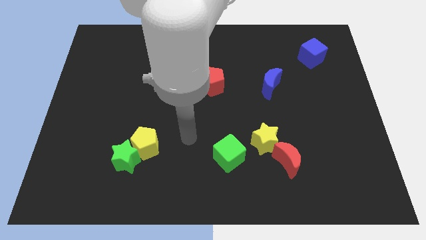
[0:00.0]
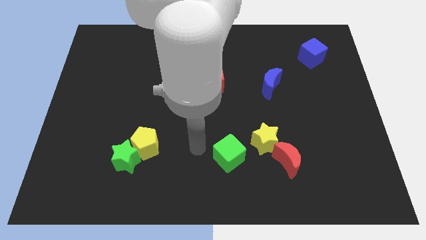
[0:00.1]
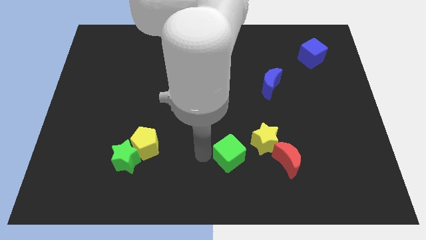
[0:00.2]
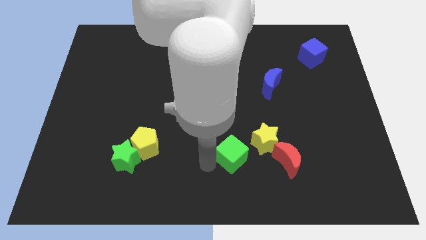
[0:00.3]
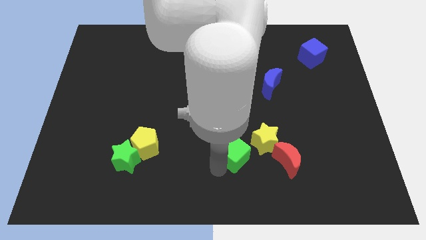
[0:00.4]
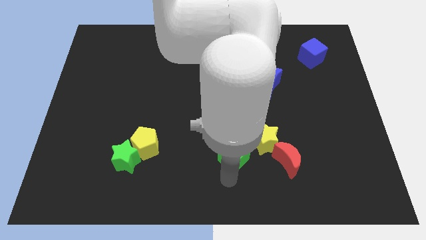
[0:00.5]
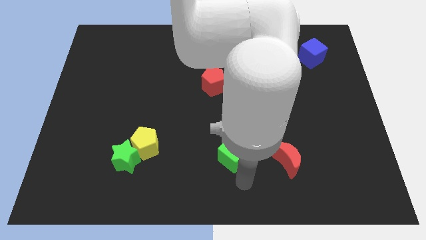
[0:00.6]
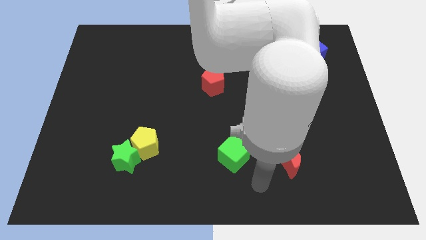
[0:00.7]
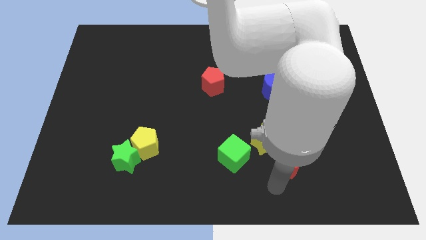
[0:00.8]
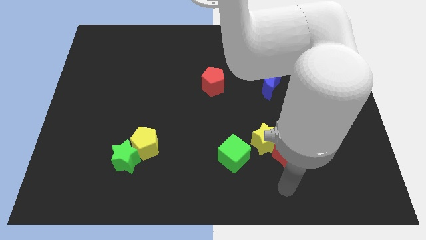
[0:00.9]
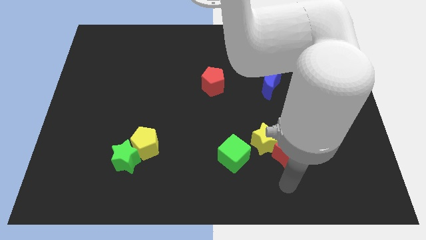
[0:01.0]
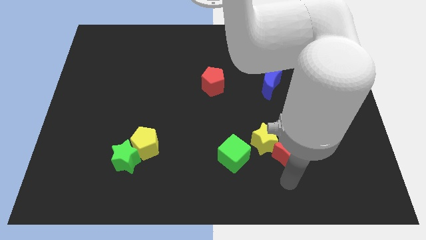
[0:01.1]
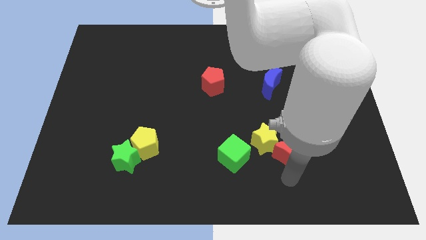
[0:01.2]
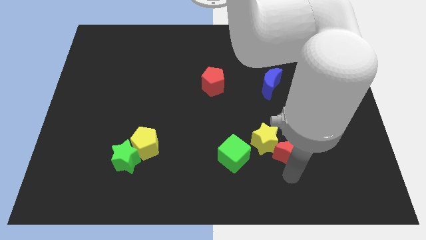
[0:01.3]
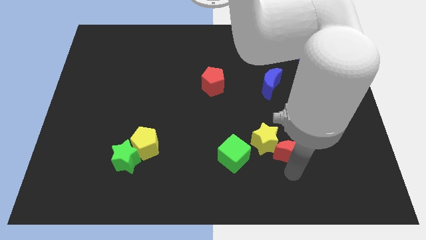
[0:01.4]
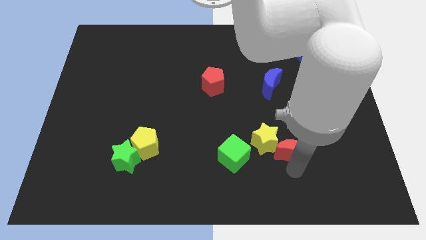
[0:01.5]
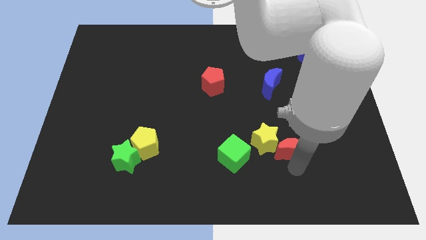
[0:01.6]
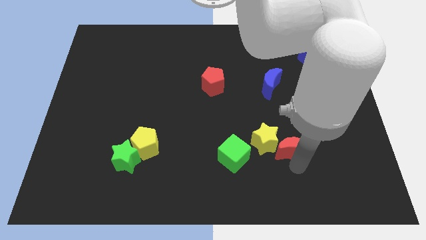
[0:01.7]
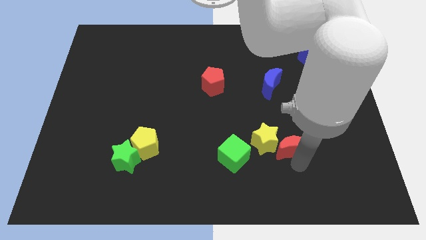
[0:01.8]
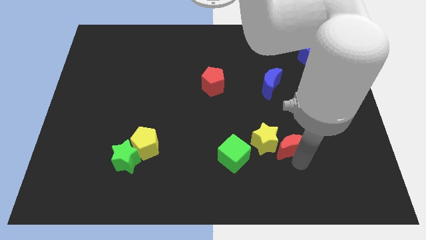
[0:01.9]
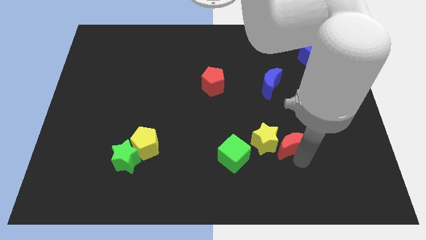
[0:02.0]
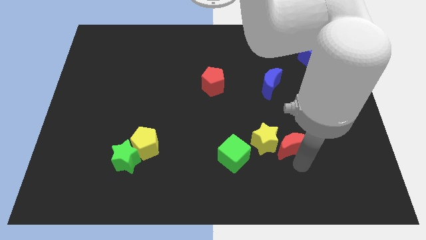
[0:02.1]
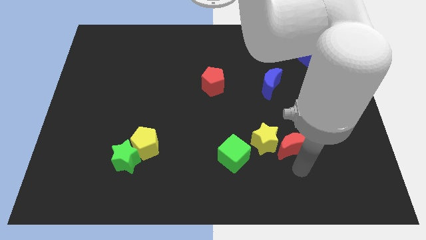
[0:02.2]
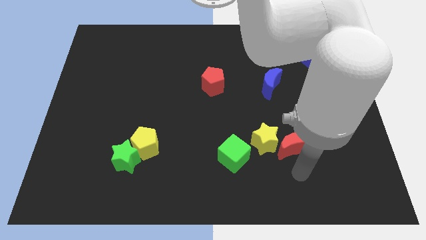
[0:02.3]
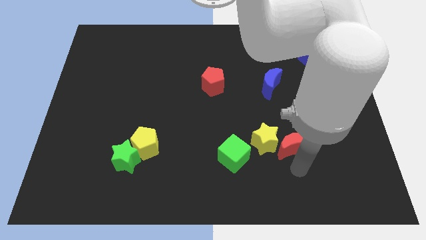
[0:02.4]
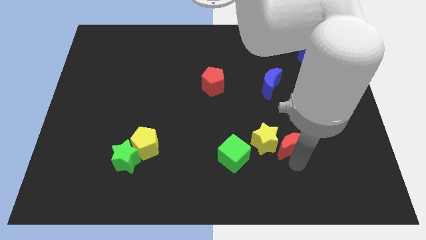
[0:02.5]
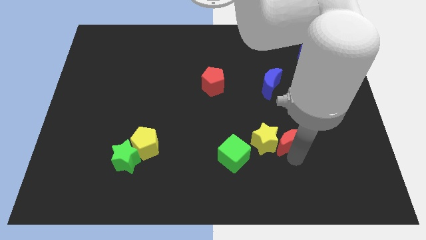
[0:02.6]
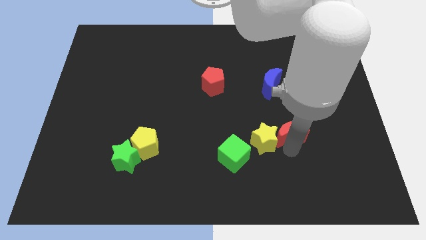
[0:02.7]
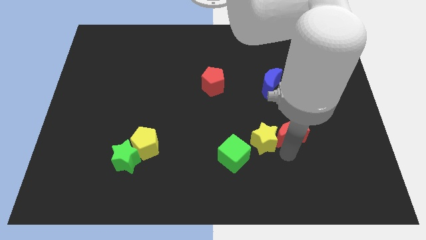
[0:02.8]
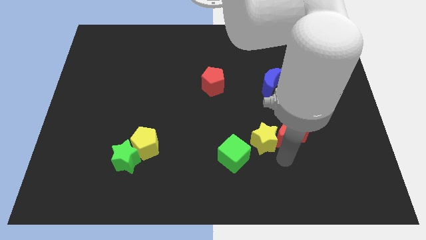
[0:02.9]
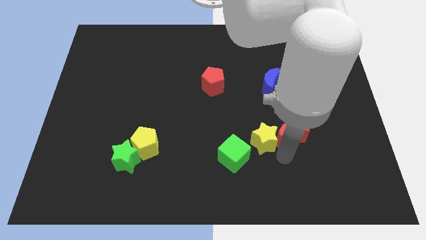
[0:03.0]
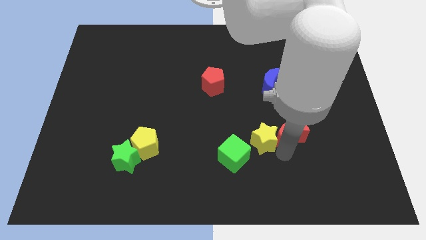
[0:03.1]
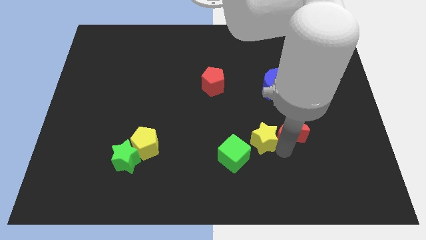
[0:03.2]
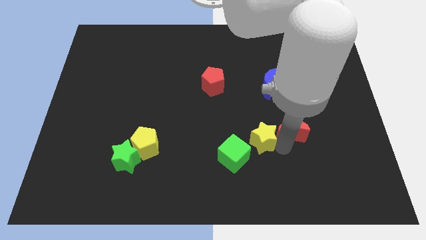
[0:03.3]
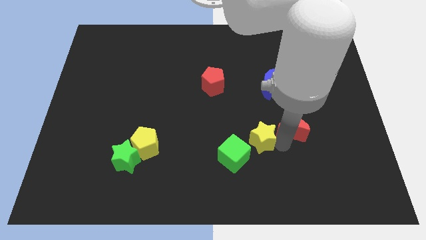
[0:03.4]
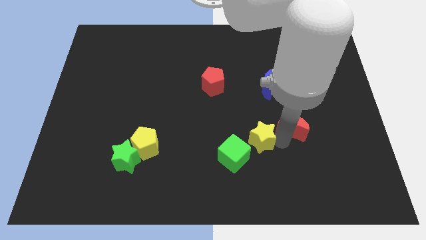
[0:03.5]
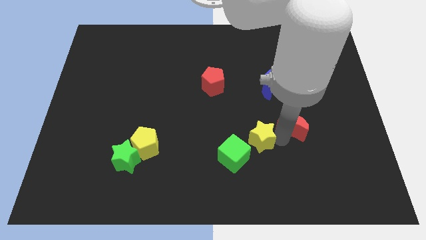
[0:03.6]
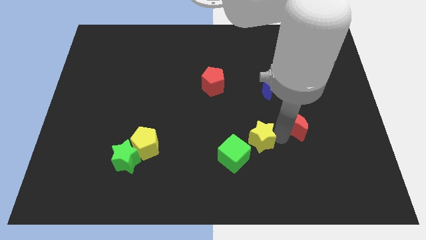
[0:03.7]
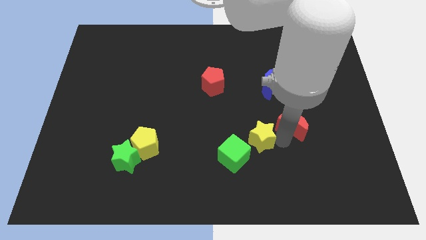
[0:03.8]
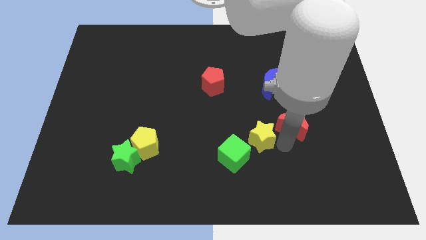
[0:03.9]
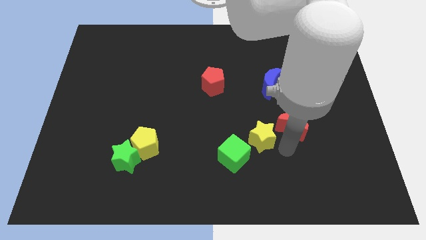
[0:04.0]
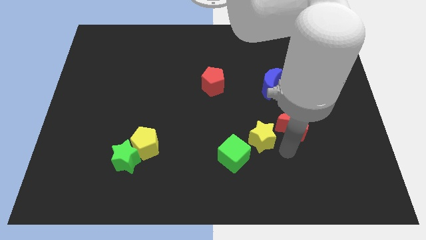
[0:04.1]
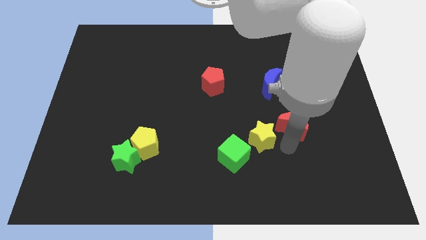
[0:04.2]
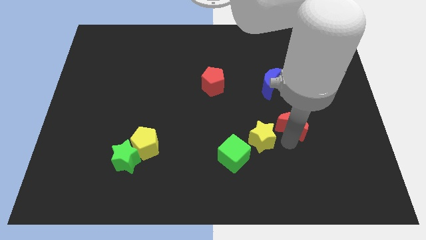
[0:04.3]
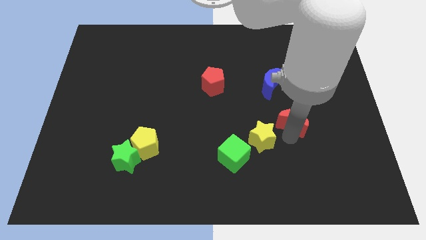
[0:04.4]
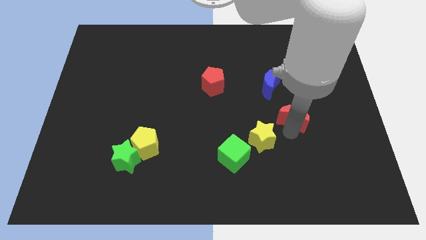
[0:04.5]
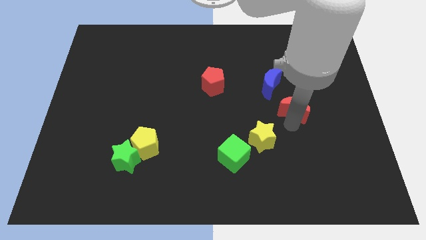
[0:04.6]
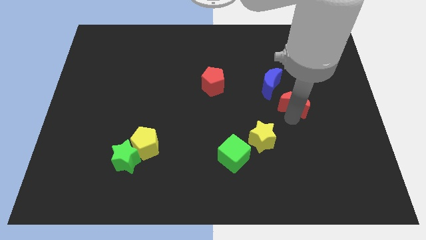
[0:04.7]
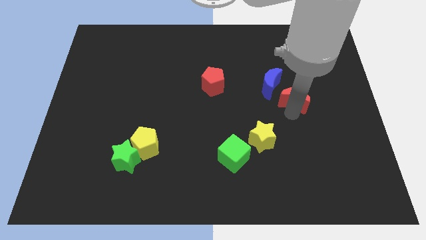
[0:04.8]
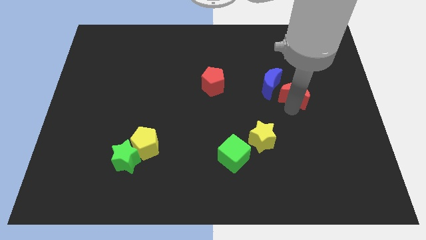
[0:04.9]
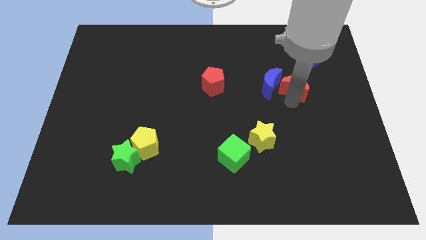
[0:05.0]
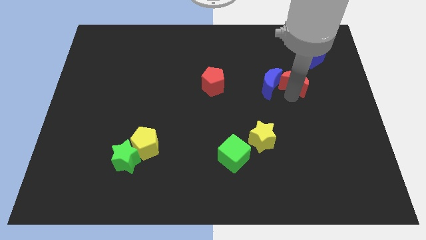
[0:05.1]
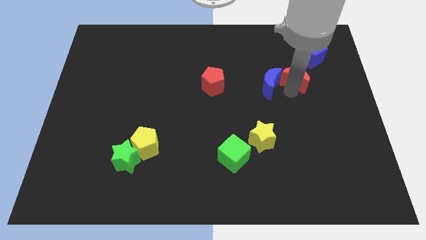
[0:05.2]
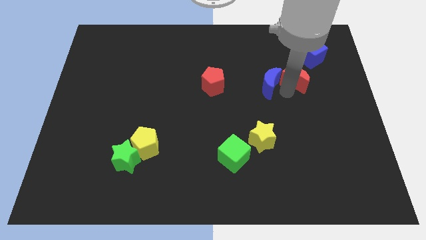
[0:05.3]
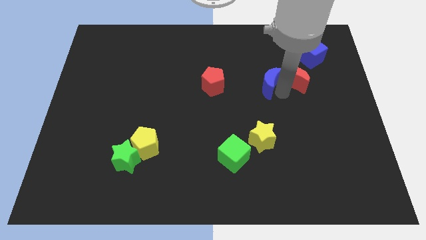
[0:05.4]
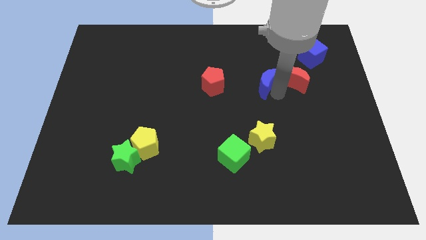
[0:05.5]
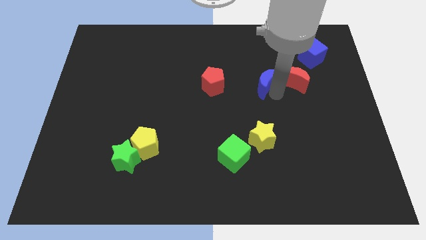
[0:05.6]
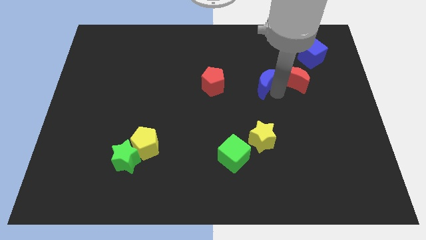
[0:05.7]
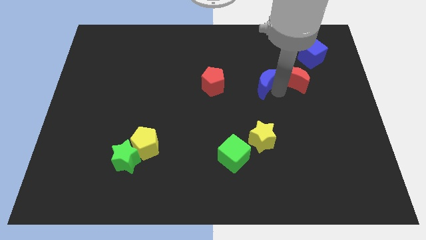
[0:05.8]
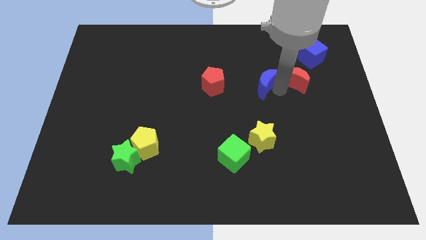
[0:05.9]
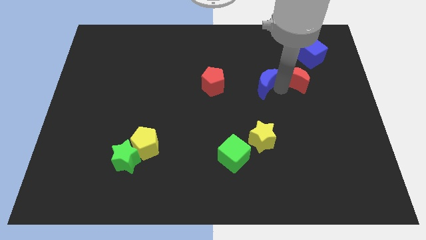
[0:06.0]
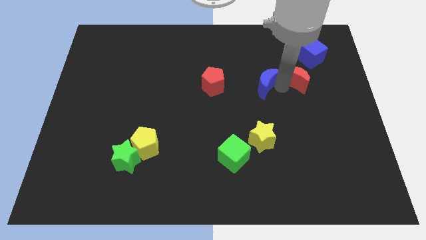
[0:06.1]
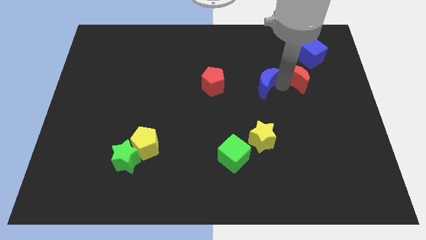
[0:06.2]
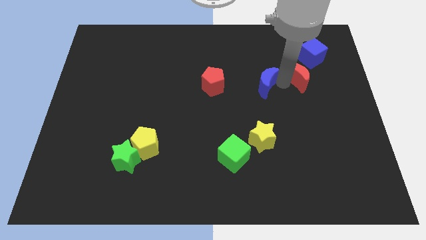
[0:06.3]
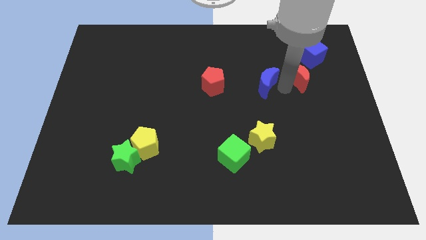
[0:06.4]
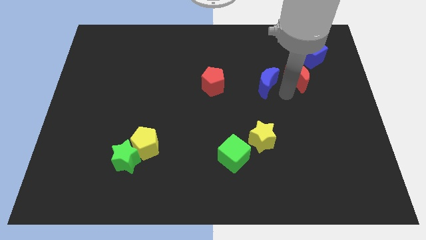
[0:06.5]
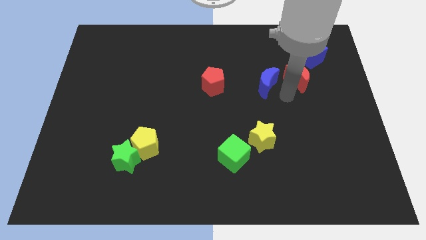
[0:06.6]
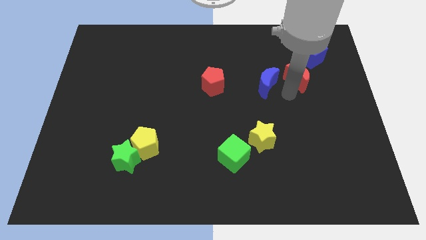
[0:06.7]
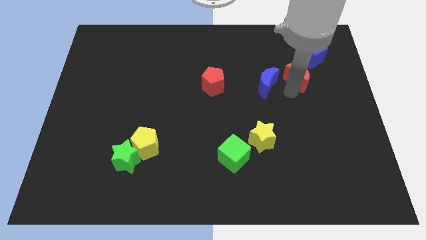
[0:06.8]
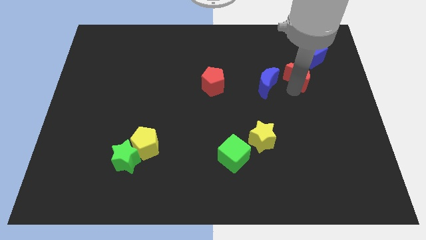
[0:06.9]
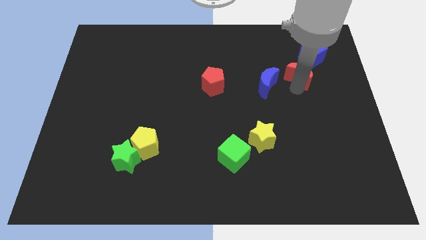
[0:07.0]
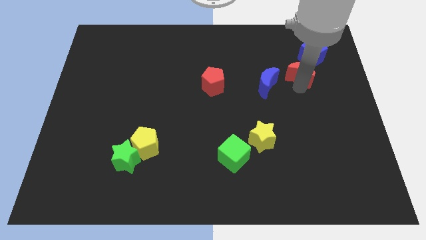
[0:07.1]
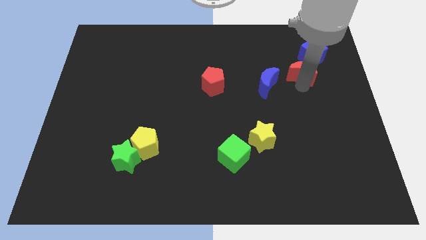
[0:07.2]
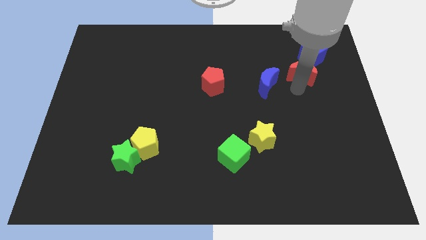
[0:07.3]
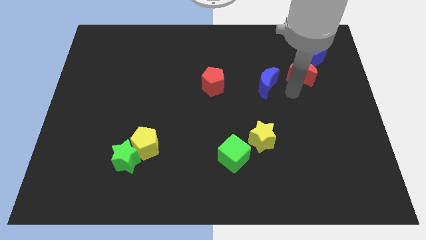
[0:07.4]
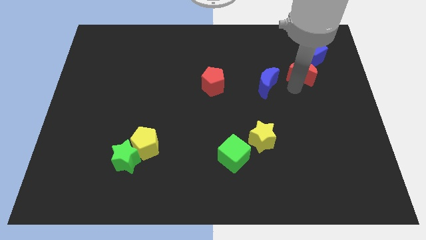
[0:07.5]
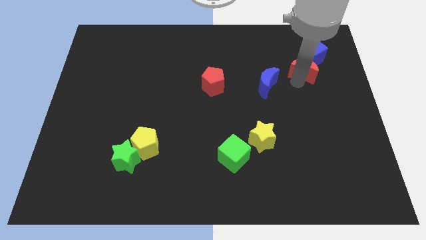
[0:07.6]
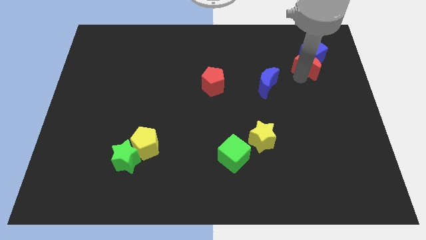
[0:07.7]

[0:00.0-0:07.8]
move the red moon close to the blue cube
